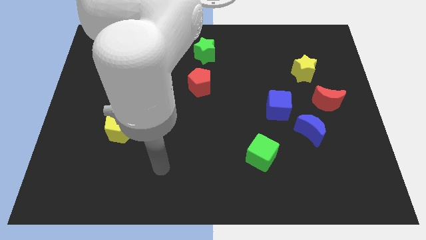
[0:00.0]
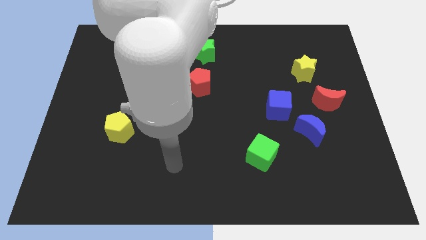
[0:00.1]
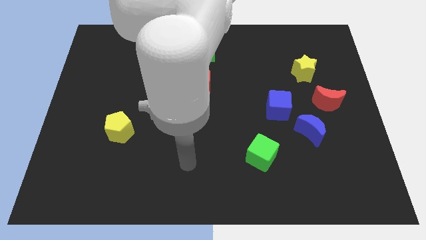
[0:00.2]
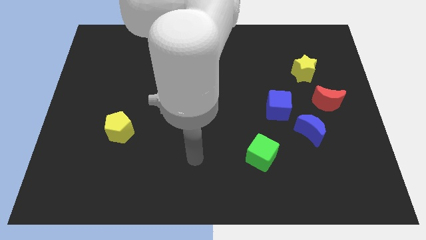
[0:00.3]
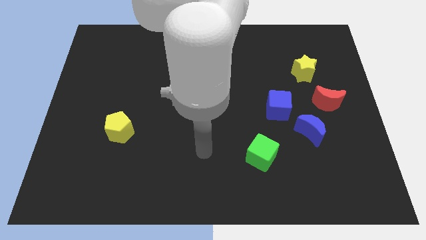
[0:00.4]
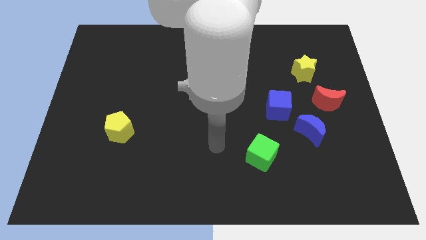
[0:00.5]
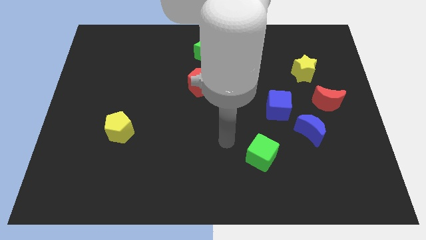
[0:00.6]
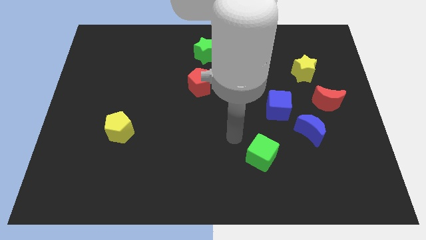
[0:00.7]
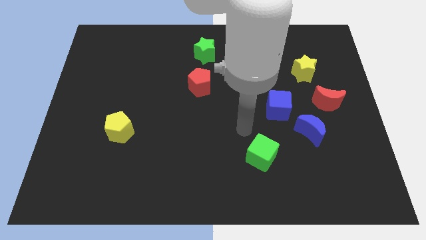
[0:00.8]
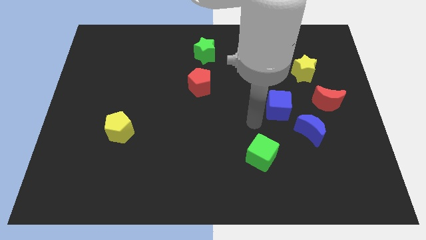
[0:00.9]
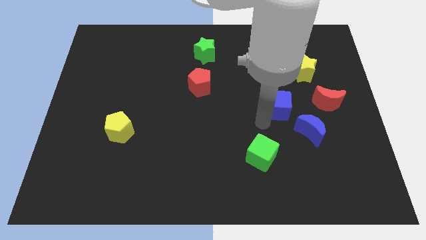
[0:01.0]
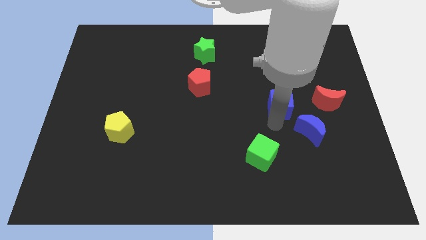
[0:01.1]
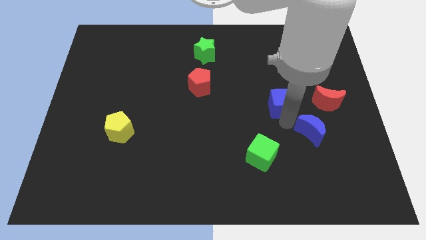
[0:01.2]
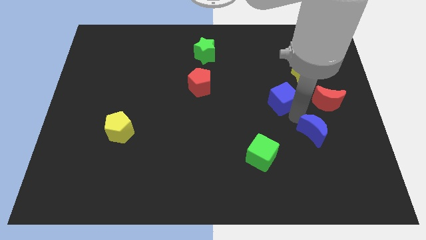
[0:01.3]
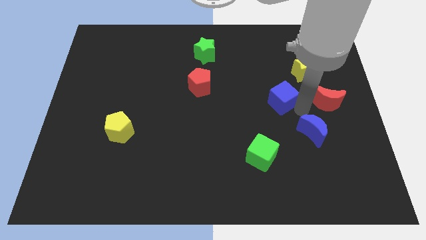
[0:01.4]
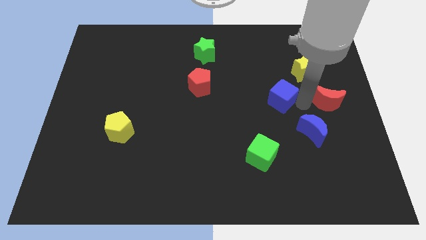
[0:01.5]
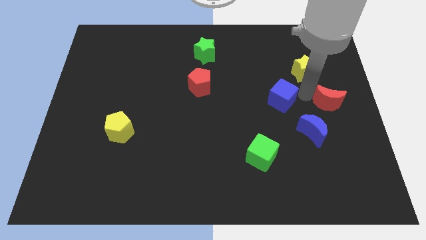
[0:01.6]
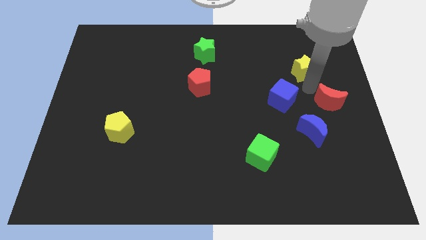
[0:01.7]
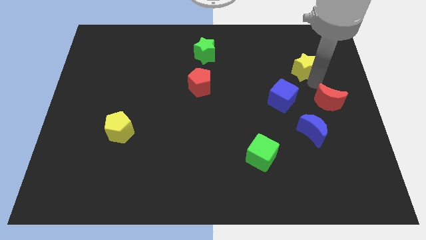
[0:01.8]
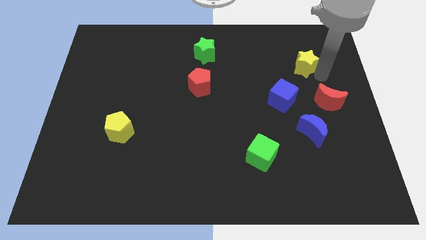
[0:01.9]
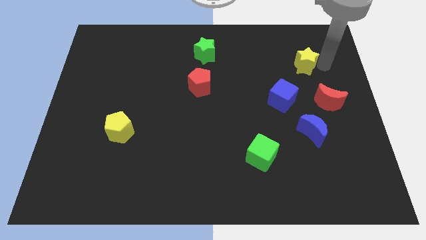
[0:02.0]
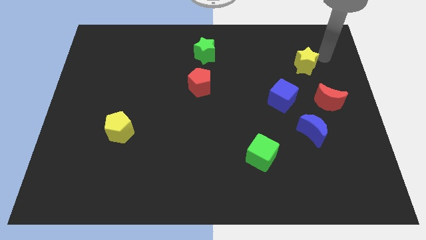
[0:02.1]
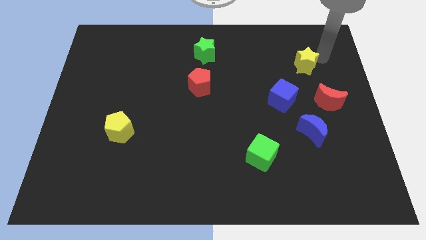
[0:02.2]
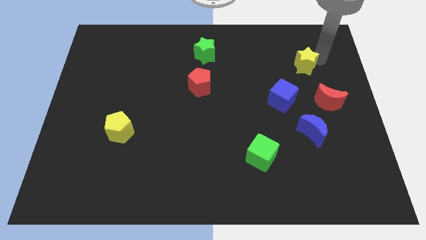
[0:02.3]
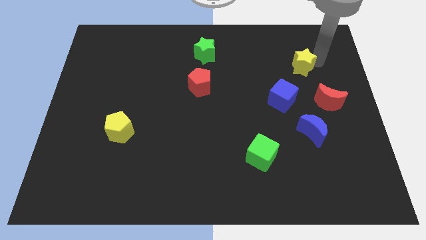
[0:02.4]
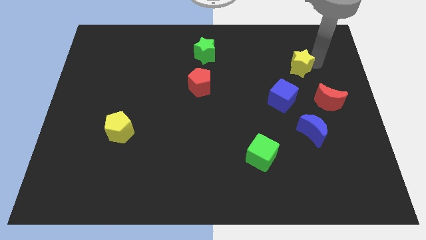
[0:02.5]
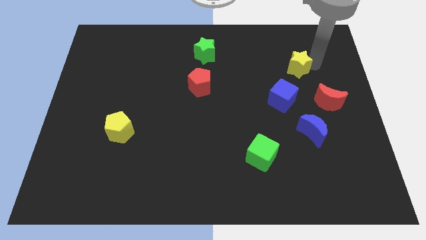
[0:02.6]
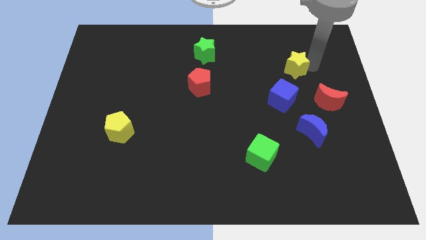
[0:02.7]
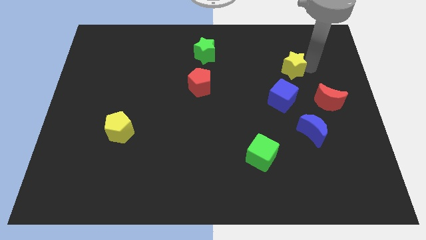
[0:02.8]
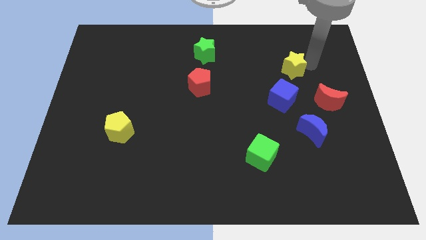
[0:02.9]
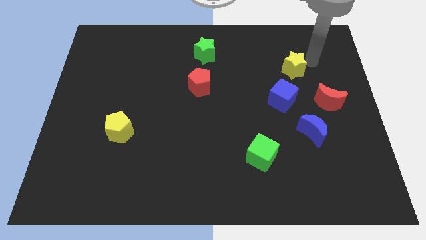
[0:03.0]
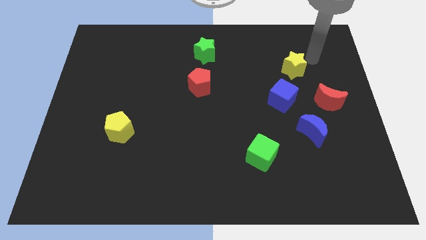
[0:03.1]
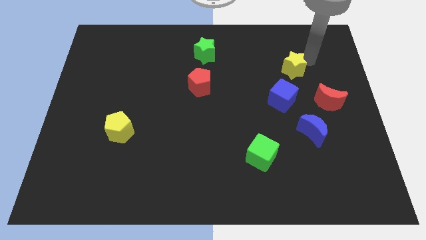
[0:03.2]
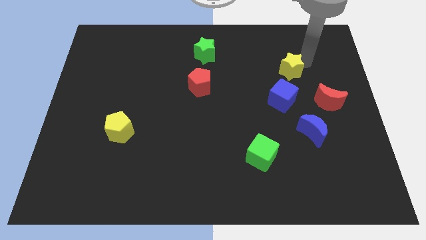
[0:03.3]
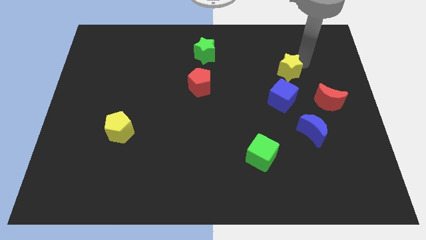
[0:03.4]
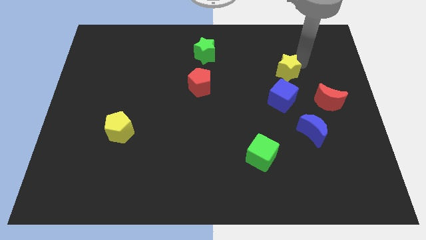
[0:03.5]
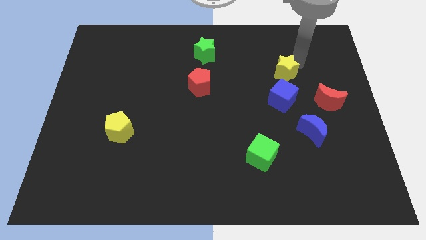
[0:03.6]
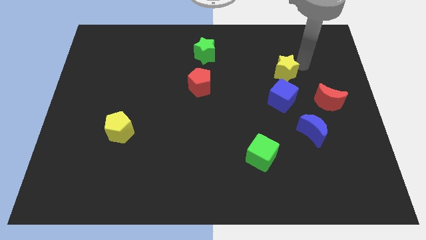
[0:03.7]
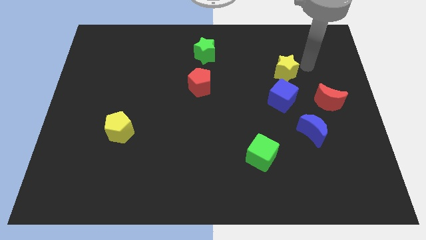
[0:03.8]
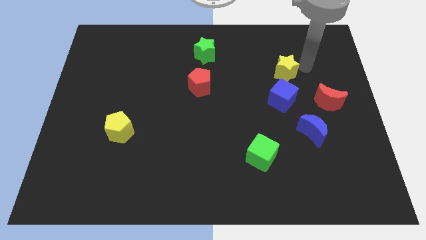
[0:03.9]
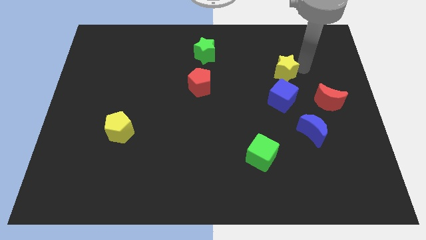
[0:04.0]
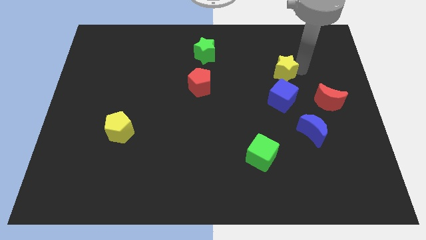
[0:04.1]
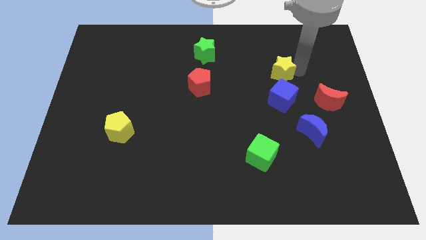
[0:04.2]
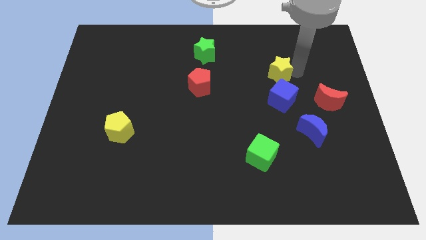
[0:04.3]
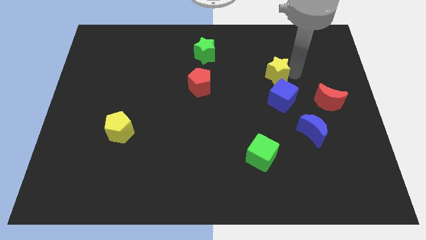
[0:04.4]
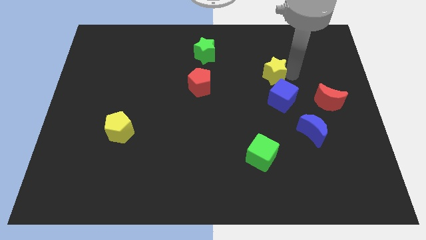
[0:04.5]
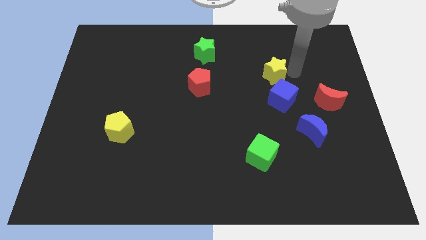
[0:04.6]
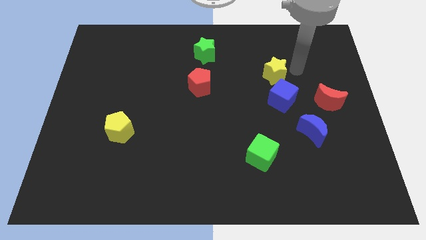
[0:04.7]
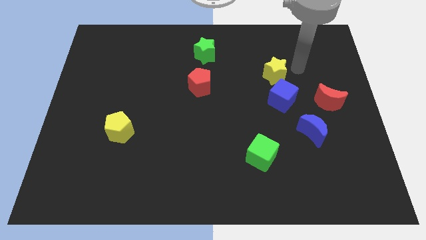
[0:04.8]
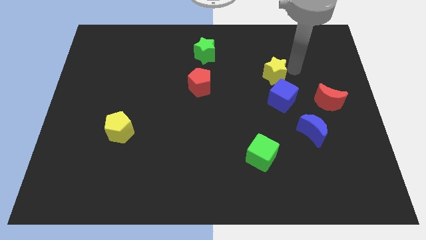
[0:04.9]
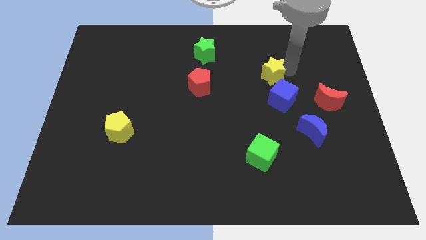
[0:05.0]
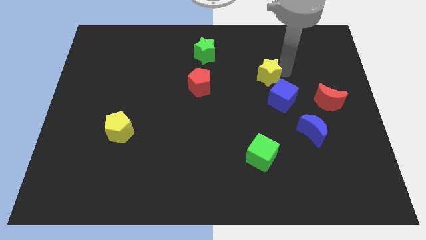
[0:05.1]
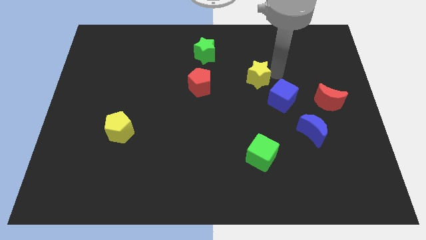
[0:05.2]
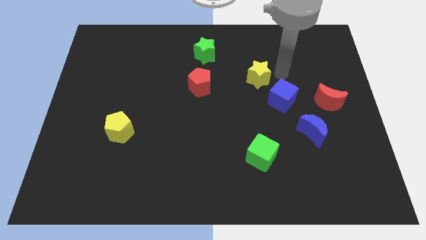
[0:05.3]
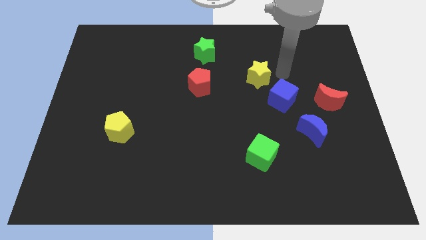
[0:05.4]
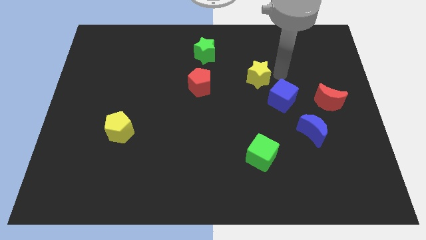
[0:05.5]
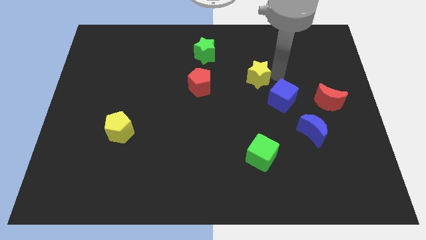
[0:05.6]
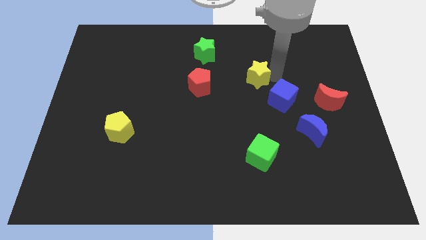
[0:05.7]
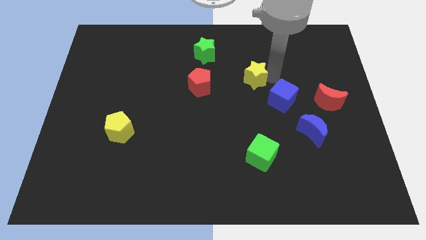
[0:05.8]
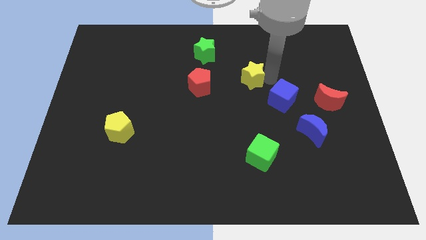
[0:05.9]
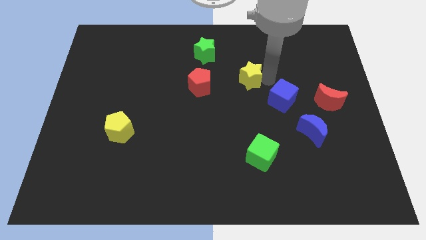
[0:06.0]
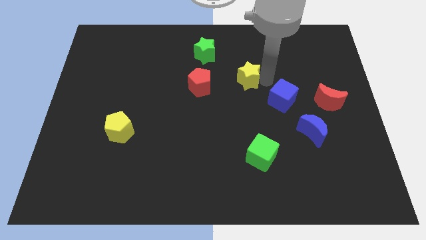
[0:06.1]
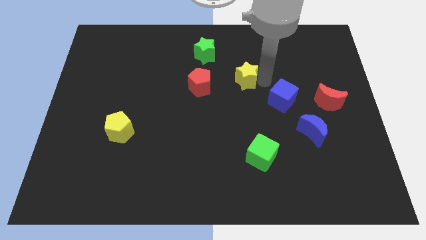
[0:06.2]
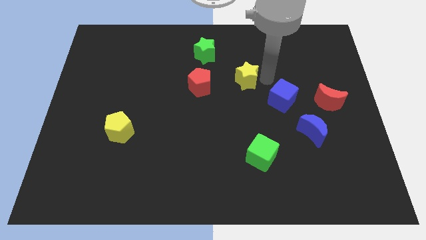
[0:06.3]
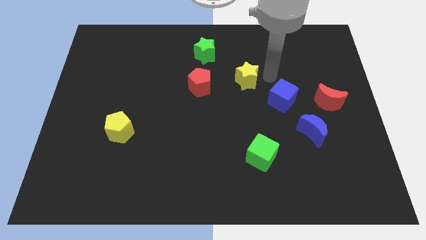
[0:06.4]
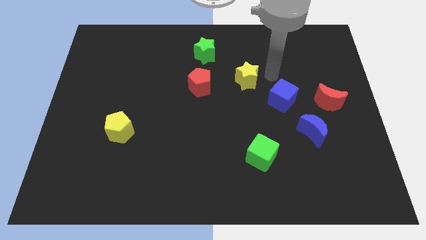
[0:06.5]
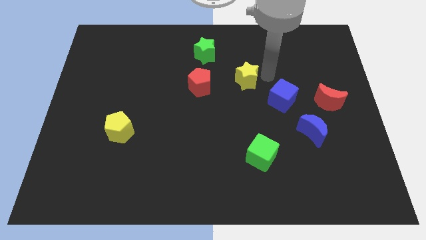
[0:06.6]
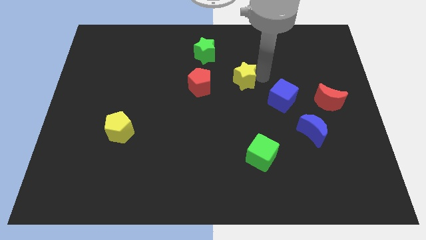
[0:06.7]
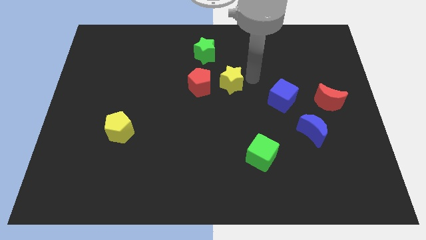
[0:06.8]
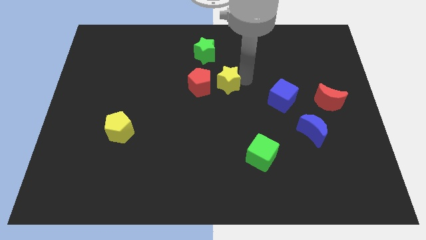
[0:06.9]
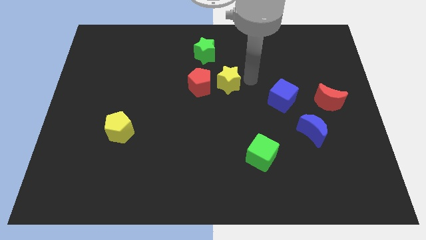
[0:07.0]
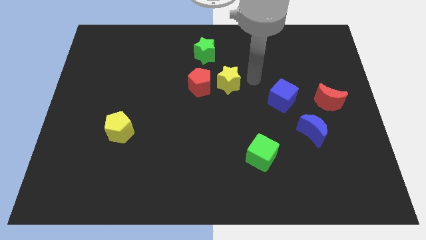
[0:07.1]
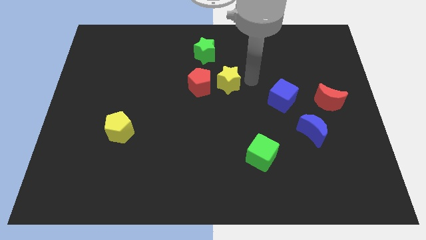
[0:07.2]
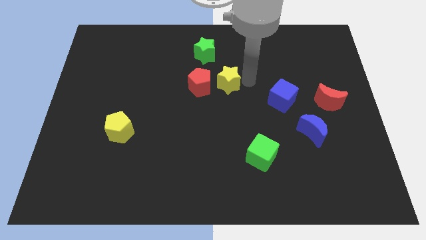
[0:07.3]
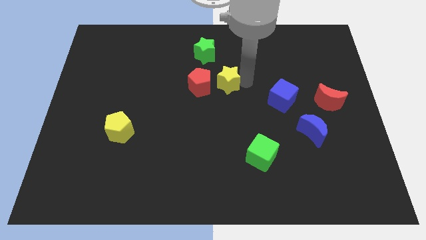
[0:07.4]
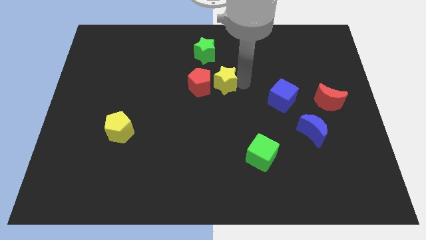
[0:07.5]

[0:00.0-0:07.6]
push the yellow star towards the red pentagon
